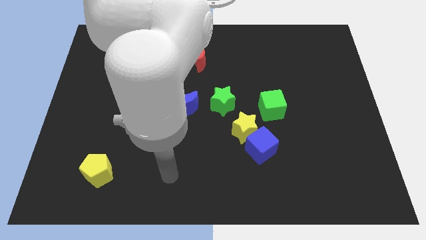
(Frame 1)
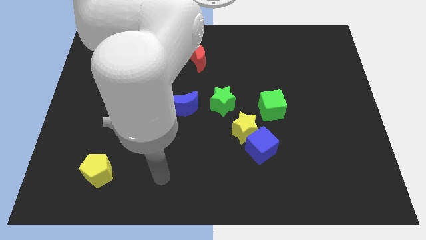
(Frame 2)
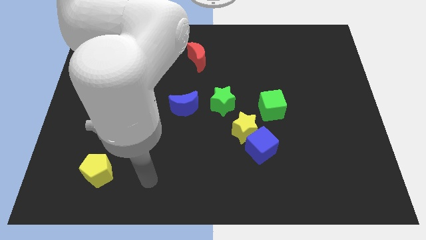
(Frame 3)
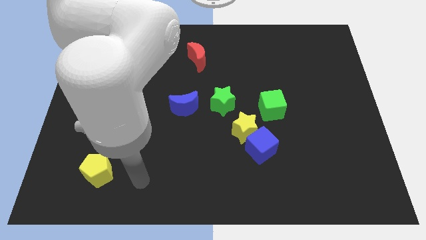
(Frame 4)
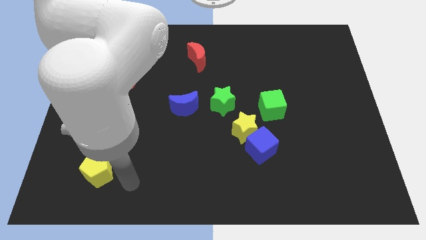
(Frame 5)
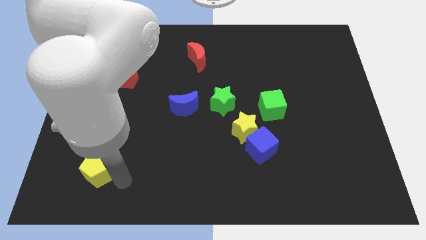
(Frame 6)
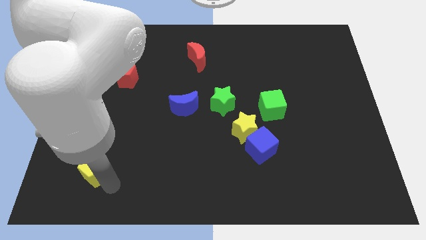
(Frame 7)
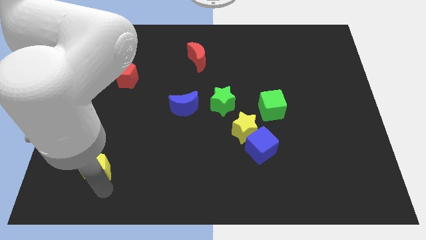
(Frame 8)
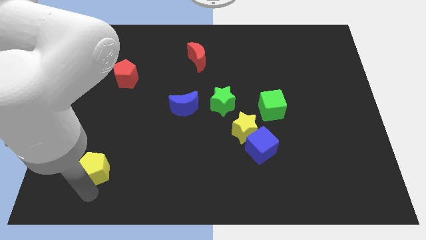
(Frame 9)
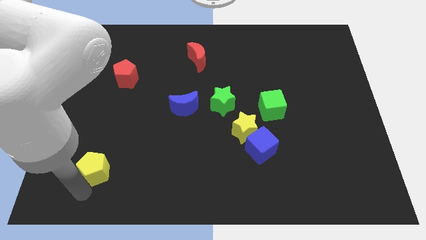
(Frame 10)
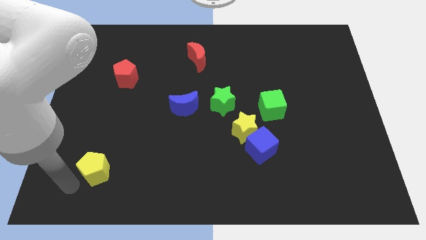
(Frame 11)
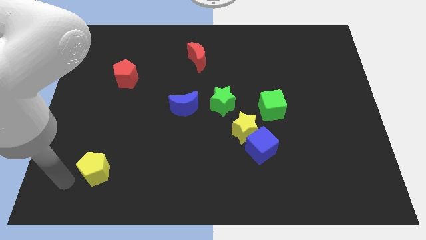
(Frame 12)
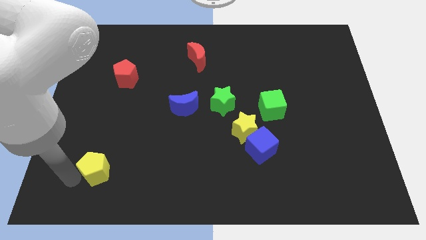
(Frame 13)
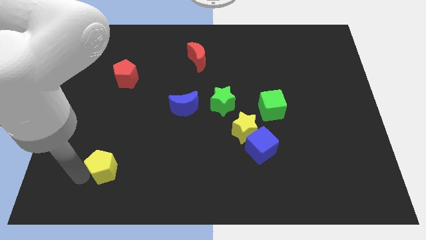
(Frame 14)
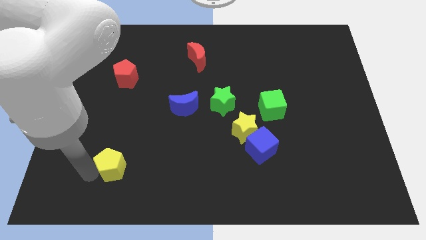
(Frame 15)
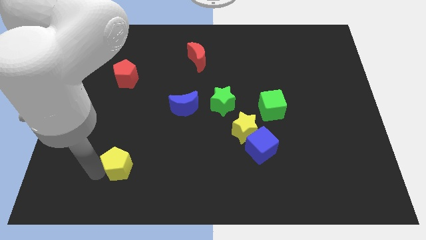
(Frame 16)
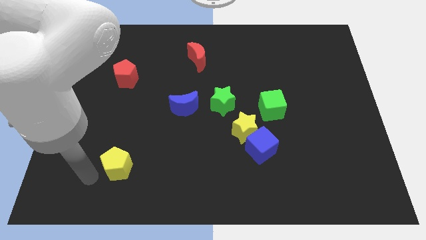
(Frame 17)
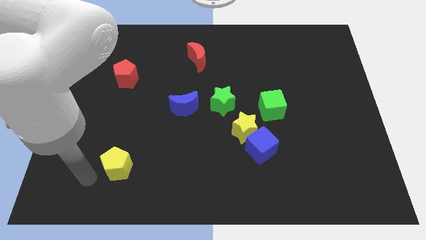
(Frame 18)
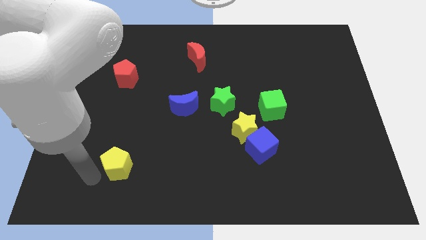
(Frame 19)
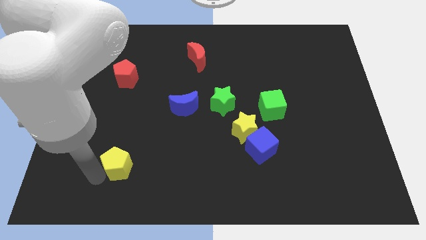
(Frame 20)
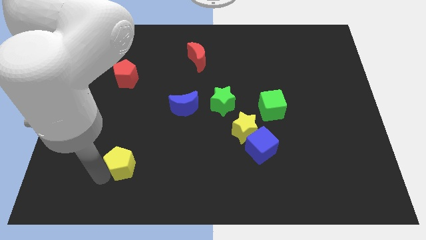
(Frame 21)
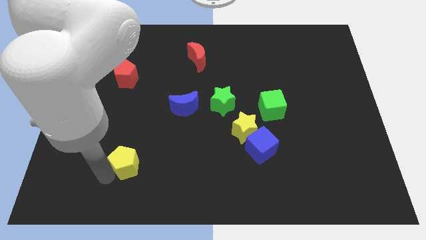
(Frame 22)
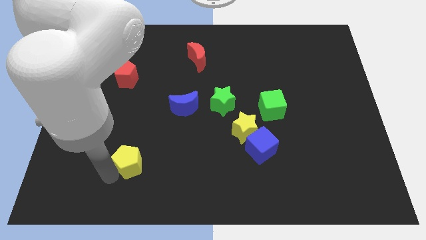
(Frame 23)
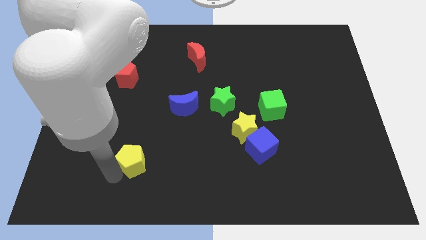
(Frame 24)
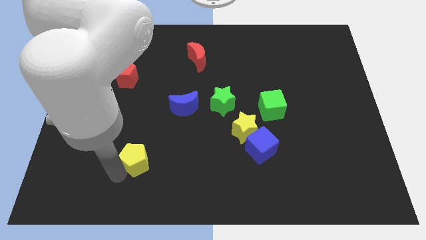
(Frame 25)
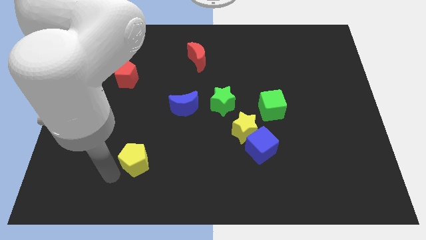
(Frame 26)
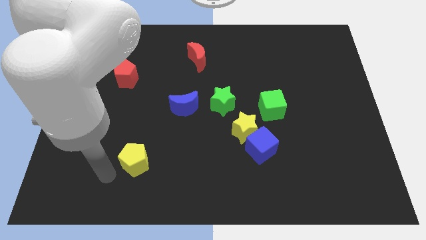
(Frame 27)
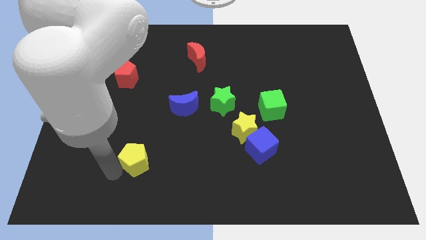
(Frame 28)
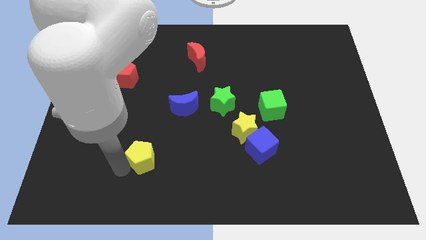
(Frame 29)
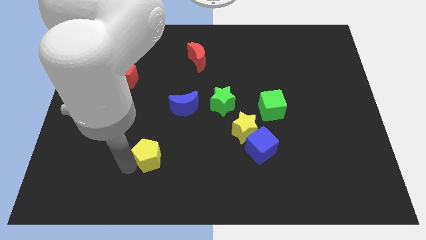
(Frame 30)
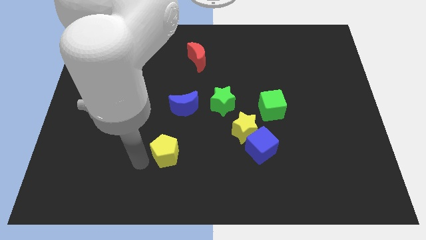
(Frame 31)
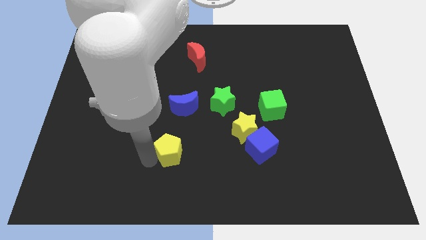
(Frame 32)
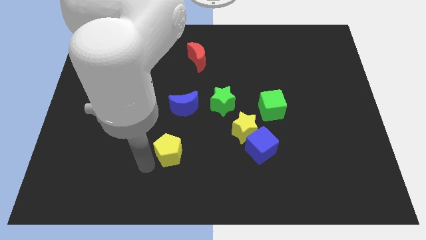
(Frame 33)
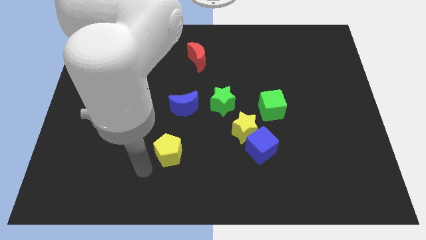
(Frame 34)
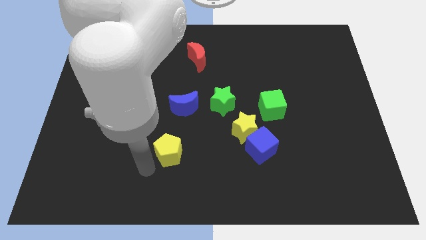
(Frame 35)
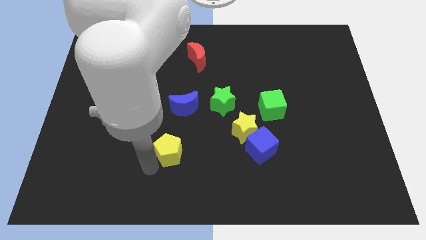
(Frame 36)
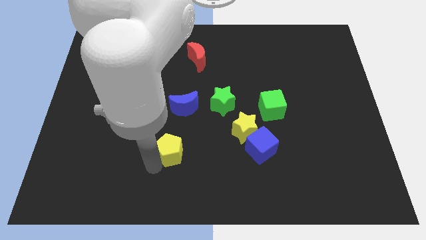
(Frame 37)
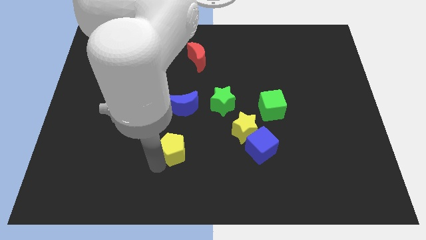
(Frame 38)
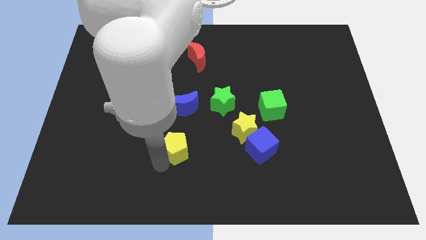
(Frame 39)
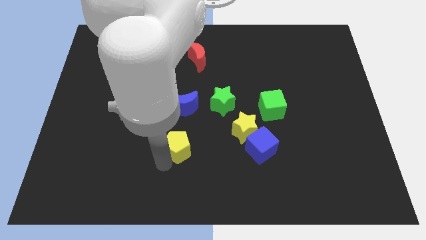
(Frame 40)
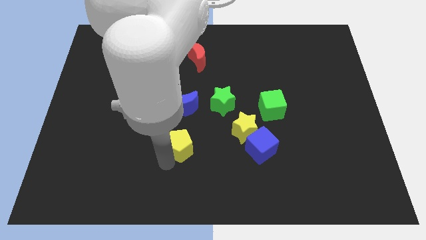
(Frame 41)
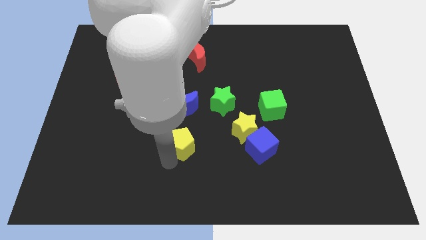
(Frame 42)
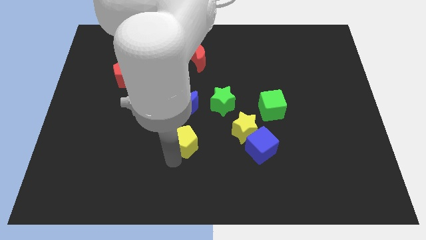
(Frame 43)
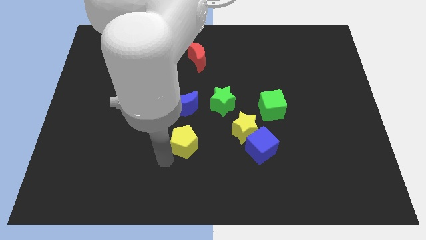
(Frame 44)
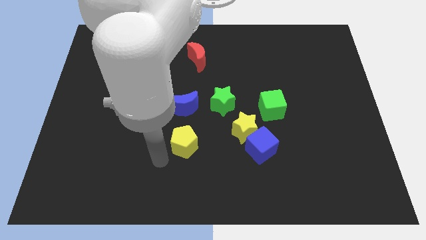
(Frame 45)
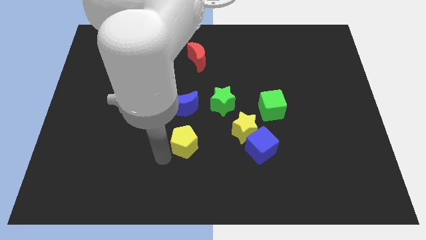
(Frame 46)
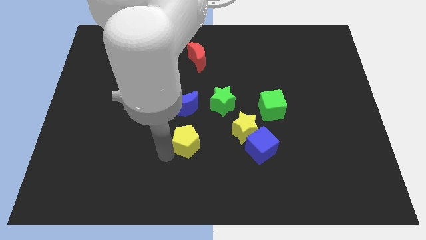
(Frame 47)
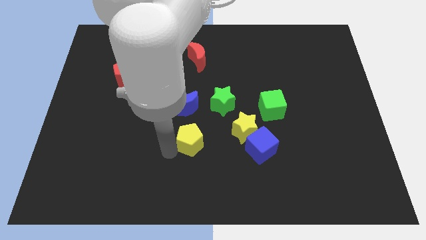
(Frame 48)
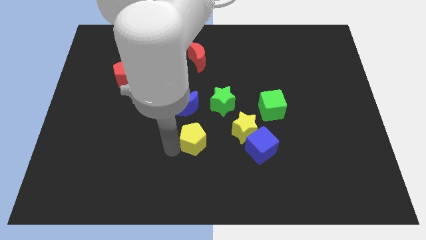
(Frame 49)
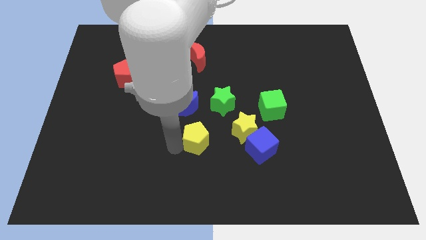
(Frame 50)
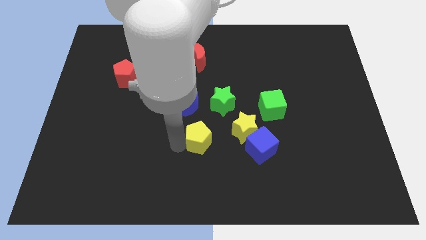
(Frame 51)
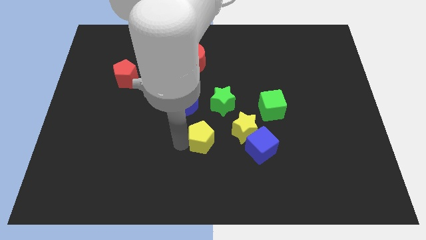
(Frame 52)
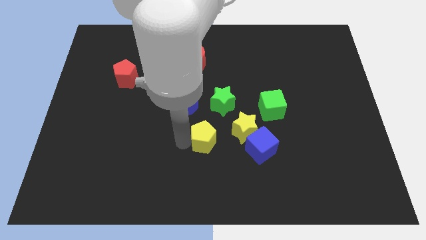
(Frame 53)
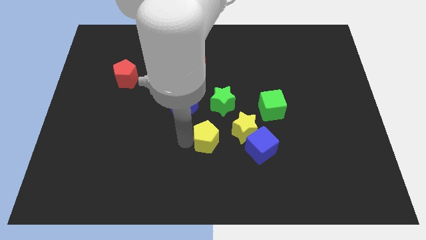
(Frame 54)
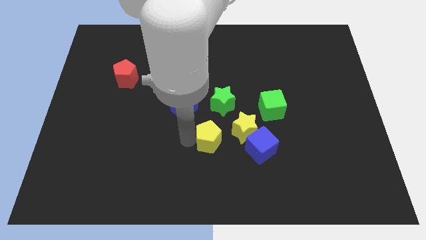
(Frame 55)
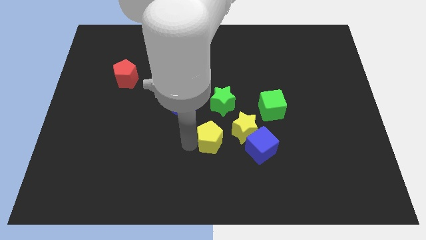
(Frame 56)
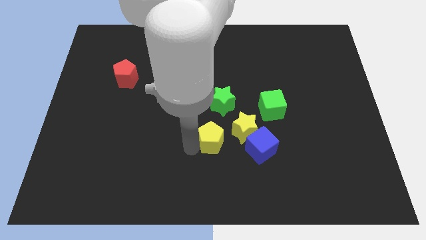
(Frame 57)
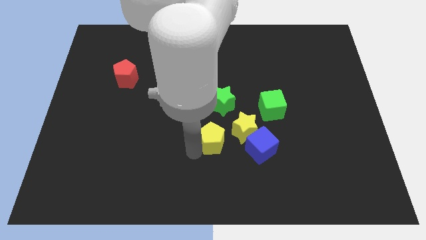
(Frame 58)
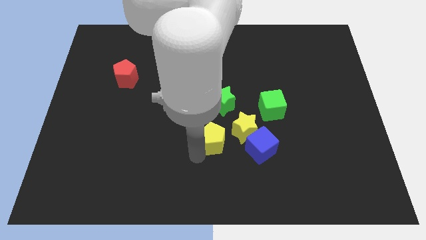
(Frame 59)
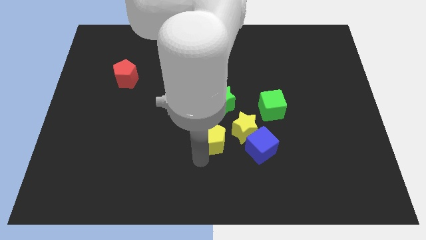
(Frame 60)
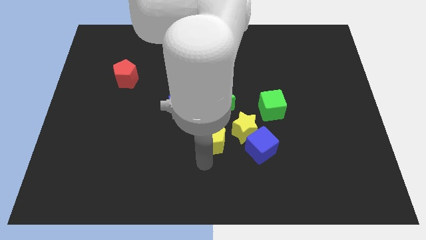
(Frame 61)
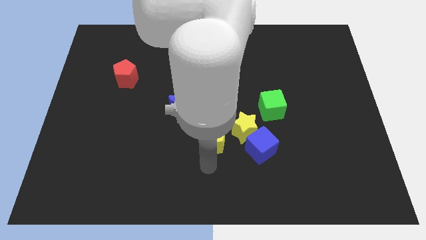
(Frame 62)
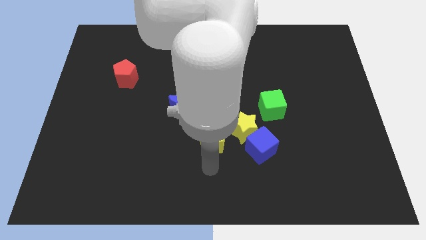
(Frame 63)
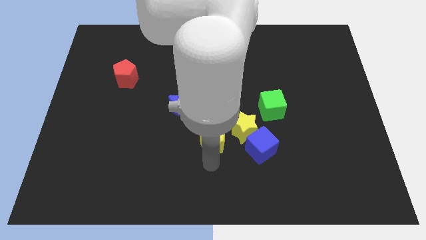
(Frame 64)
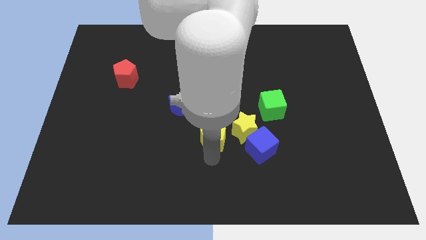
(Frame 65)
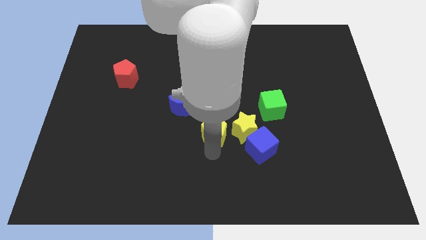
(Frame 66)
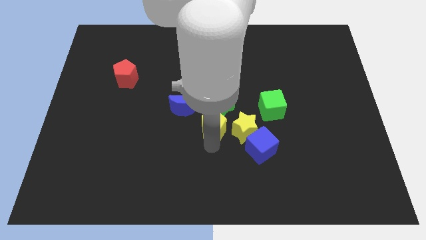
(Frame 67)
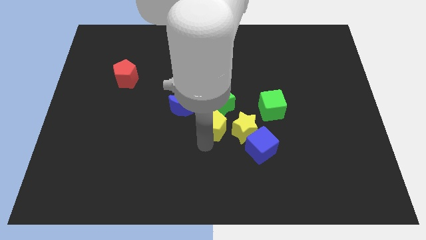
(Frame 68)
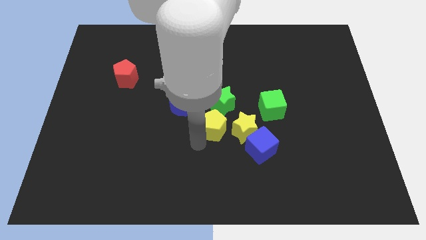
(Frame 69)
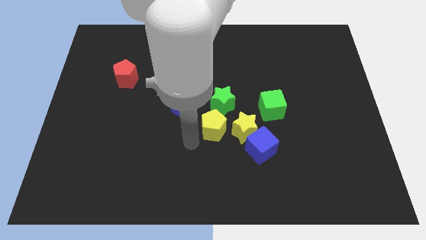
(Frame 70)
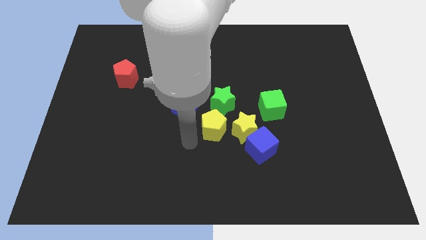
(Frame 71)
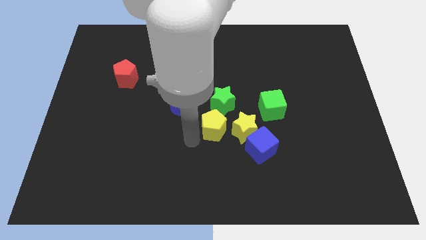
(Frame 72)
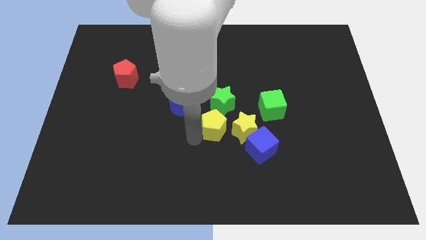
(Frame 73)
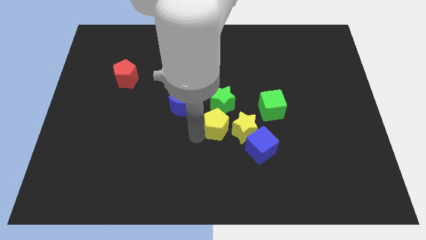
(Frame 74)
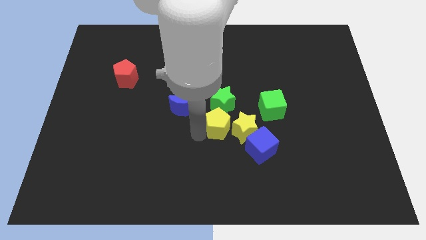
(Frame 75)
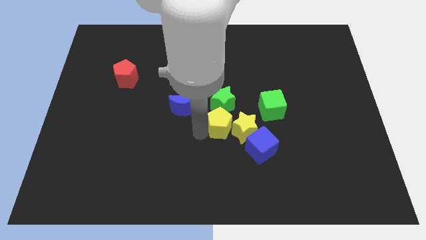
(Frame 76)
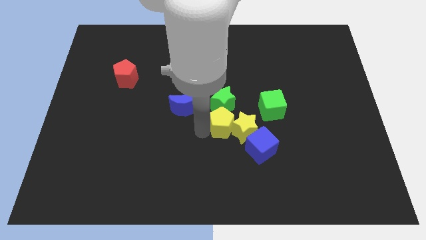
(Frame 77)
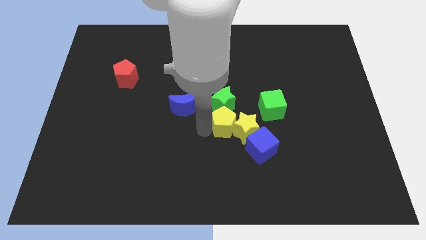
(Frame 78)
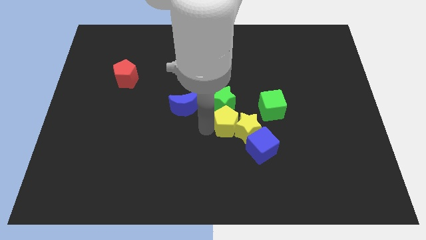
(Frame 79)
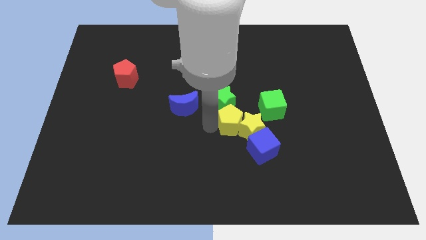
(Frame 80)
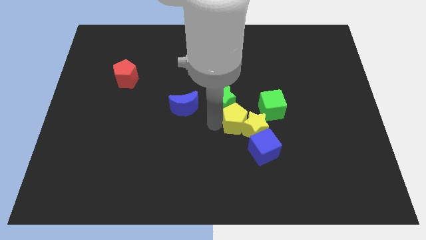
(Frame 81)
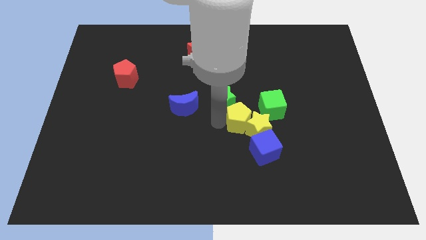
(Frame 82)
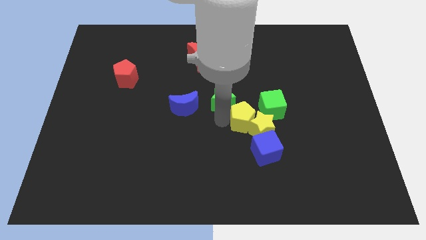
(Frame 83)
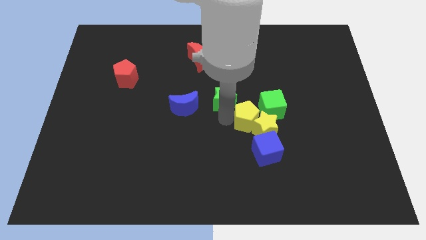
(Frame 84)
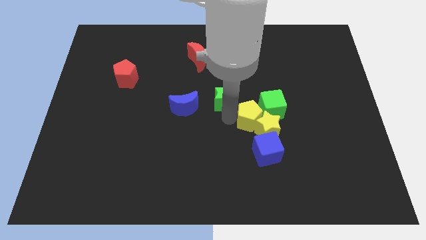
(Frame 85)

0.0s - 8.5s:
move the yellow pentagon towards the green cube
